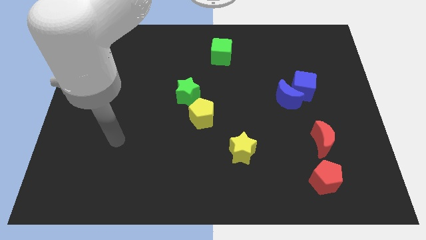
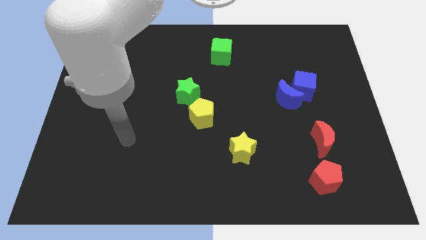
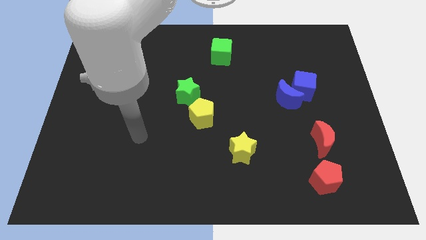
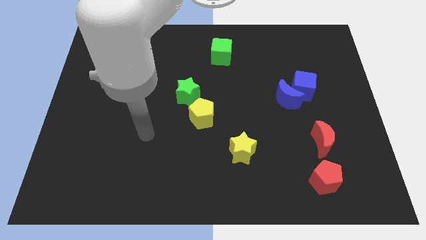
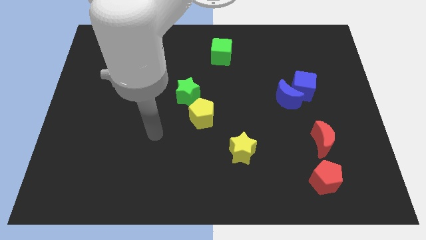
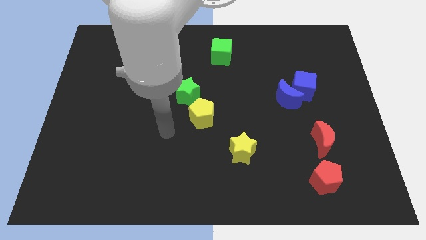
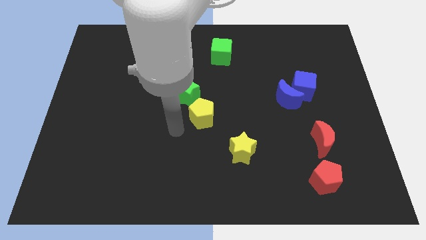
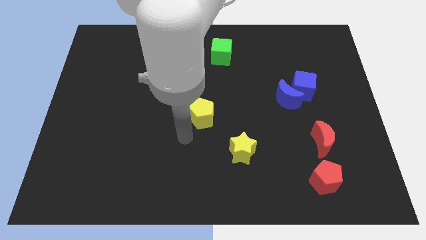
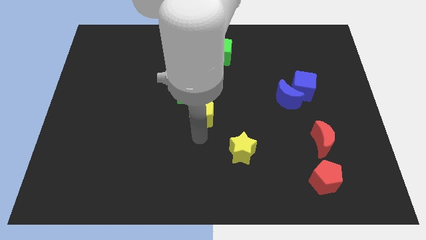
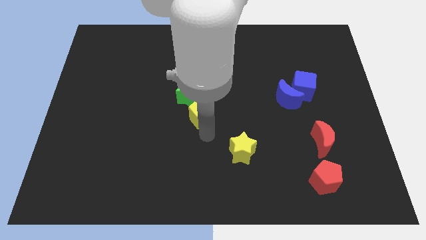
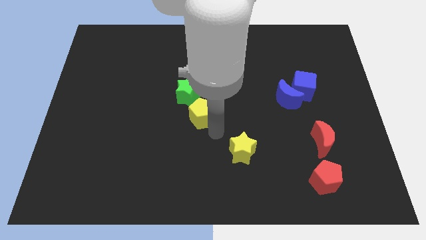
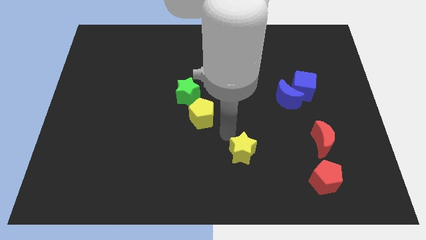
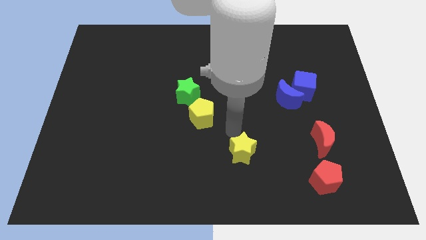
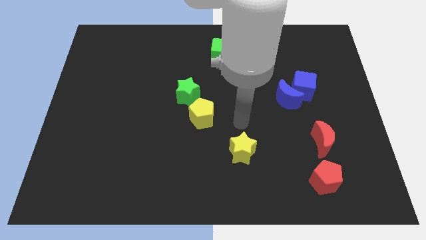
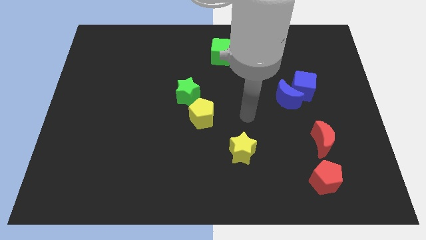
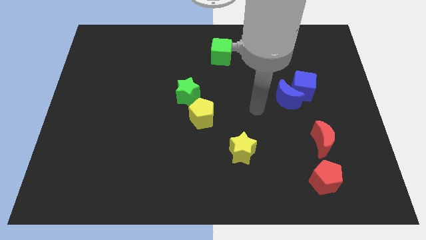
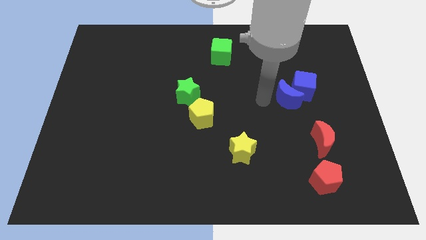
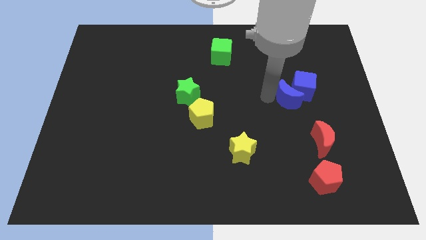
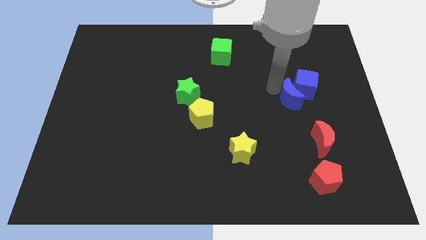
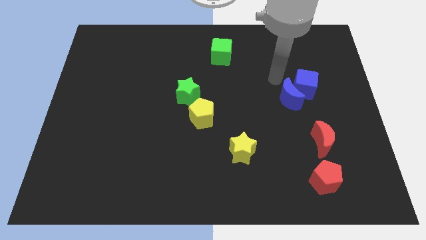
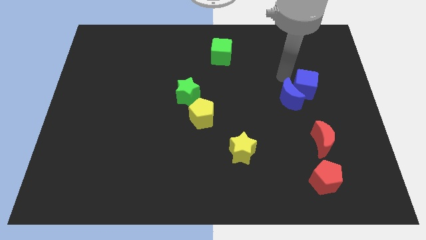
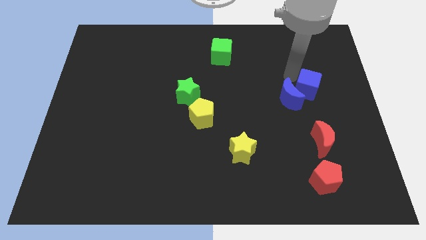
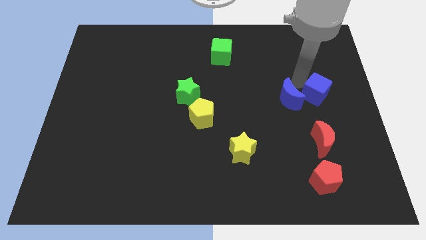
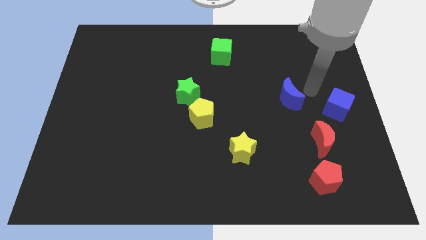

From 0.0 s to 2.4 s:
pull the blue moon apart from the blue cube

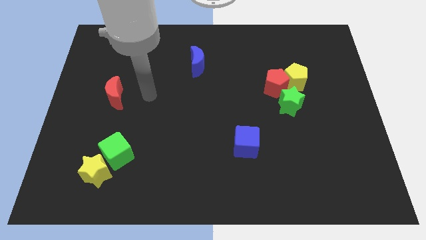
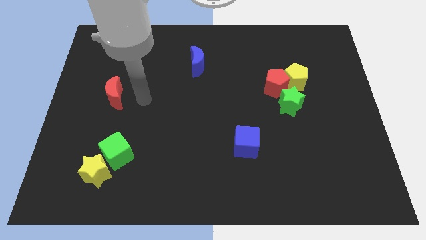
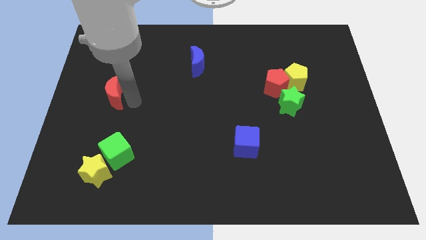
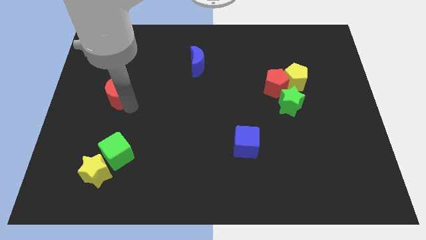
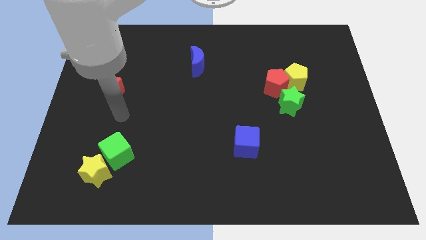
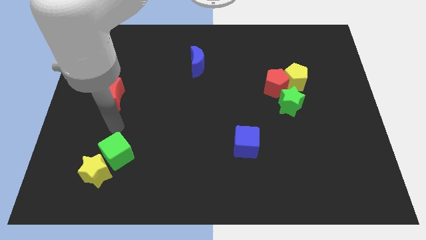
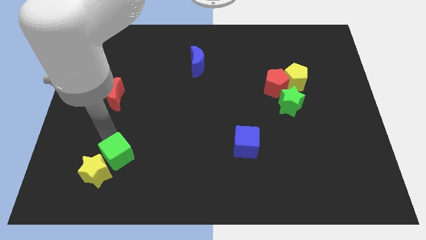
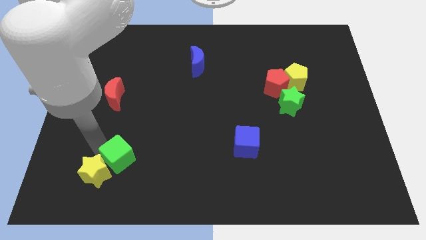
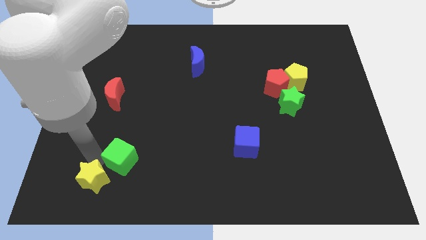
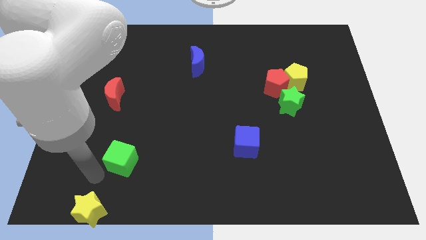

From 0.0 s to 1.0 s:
pull the green cube apart from the yellow star

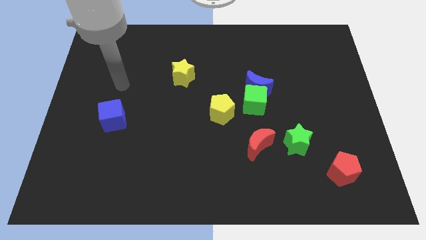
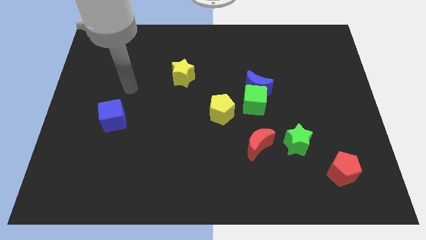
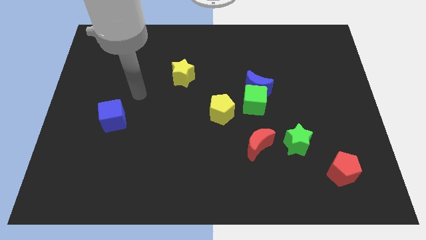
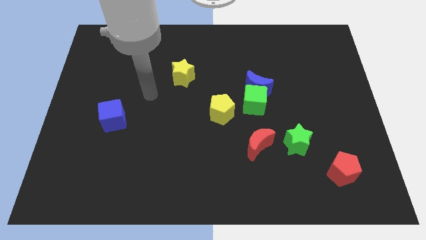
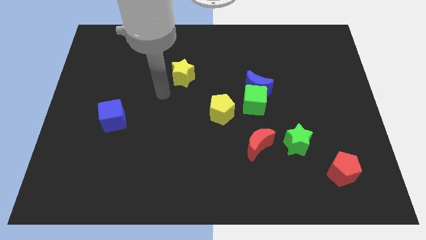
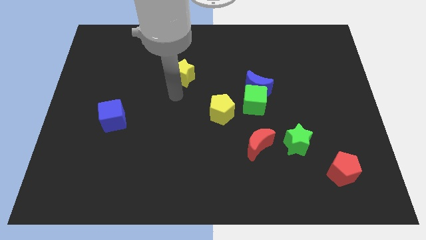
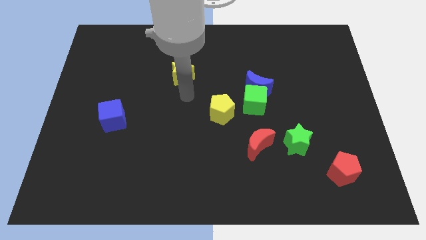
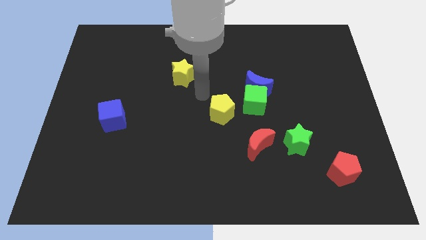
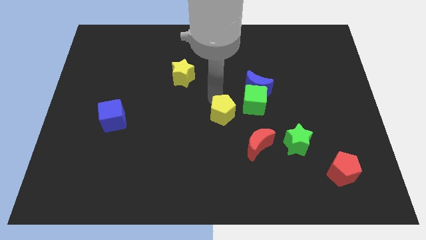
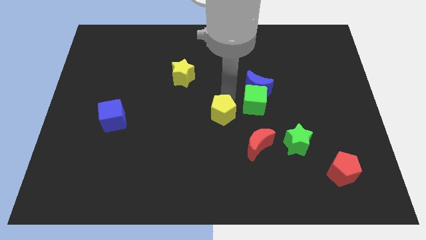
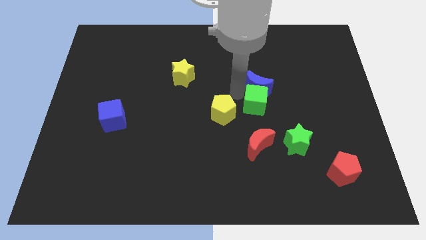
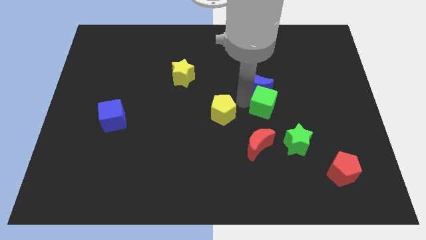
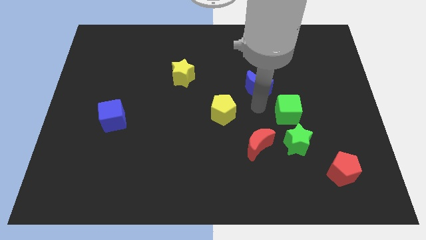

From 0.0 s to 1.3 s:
separate the blue moon from the green cube

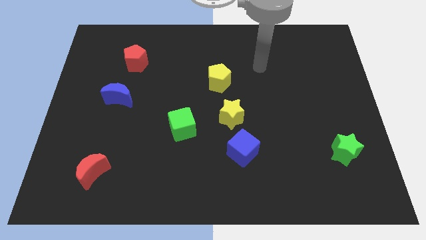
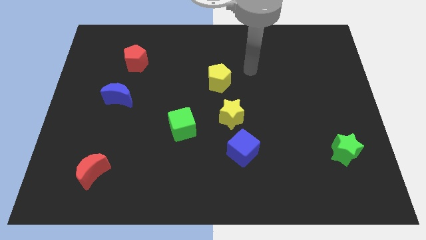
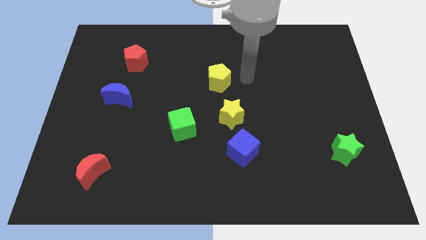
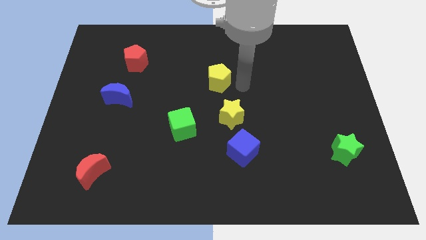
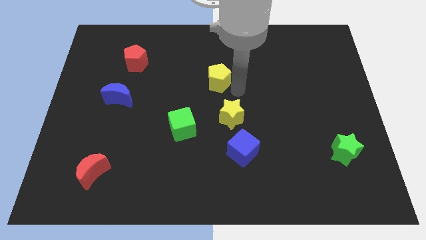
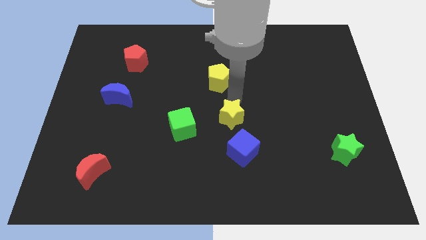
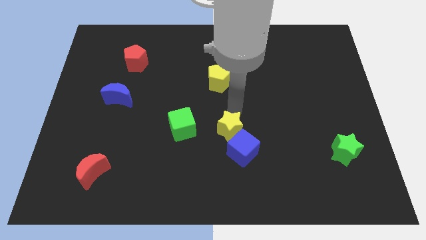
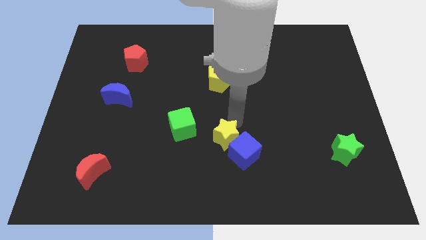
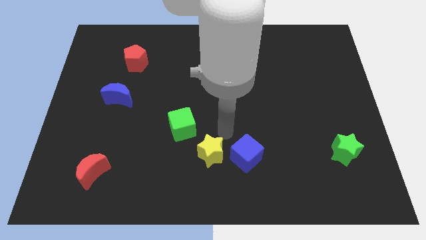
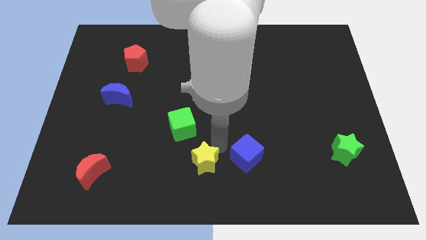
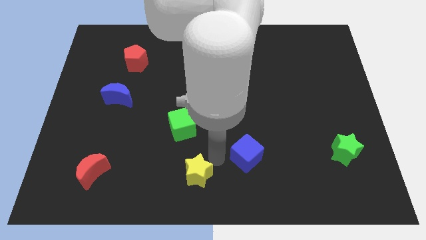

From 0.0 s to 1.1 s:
separate the blue cube from the yellow star

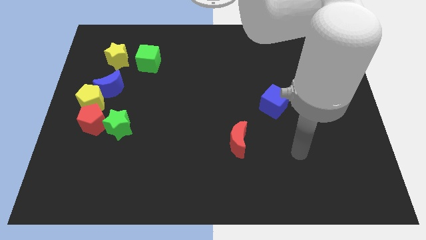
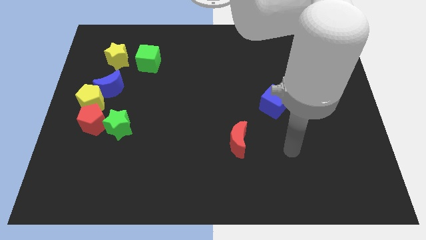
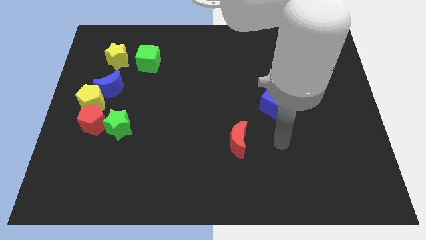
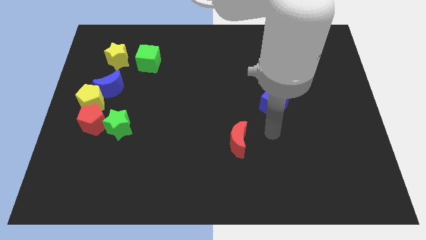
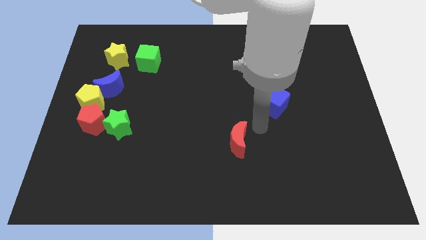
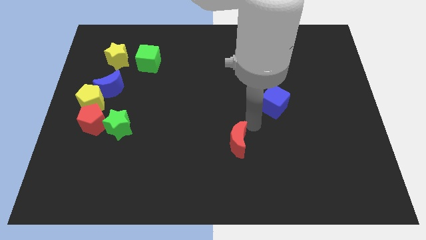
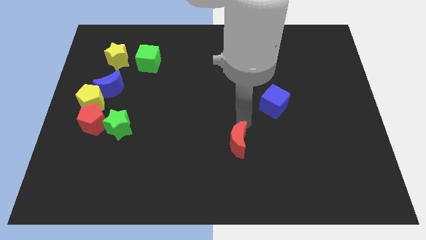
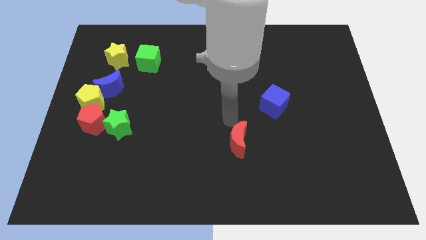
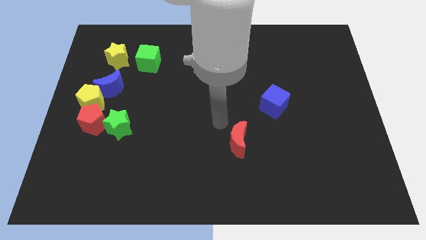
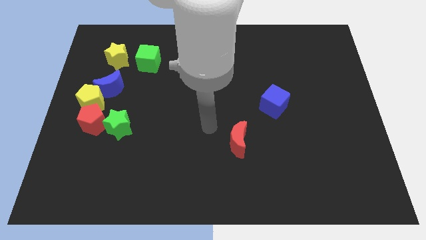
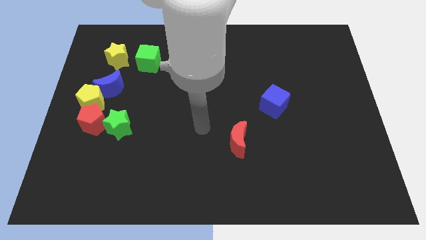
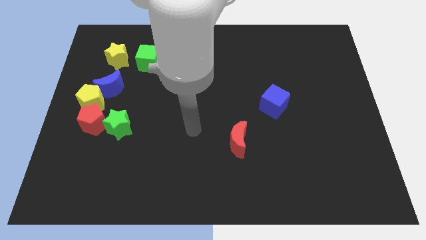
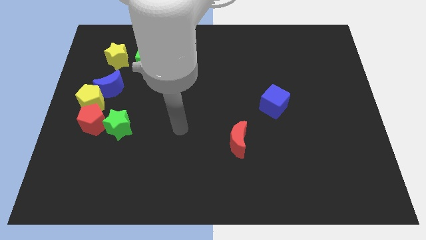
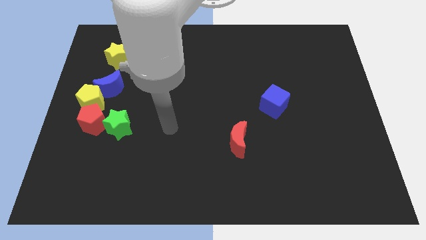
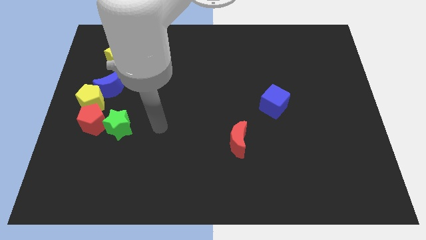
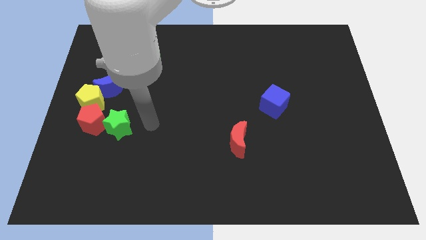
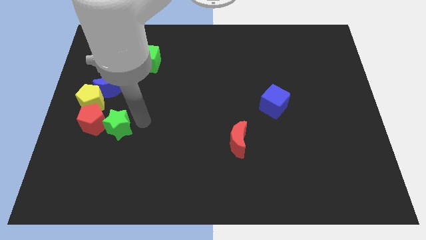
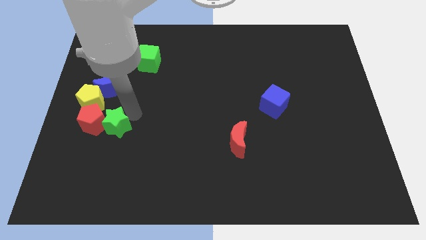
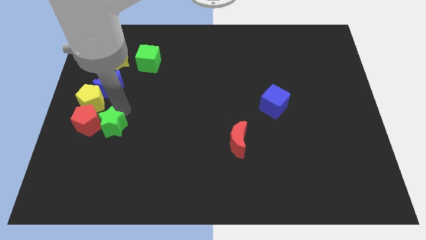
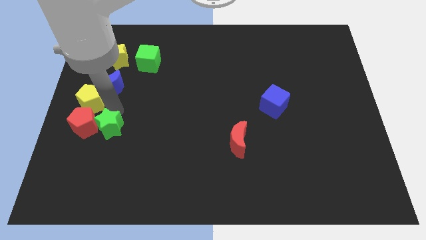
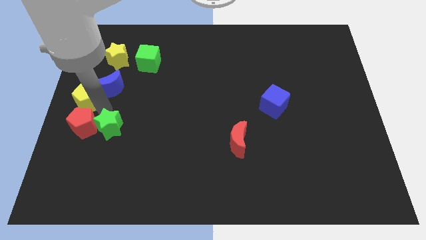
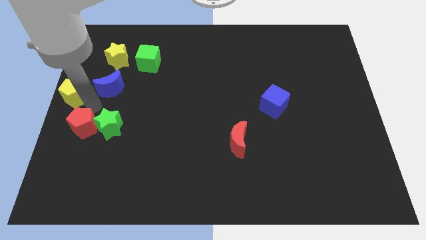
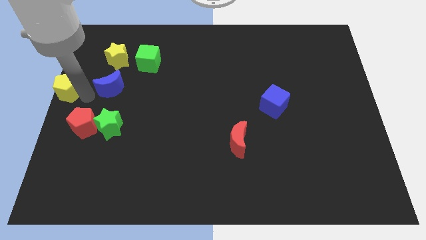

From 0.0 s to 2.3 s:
separate the blue moon from the yellow pentagon

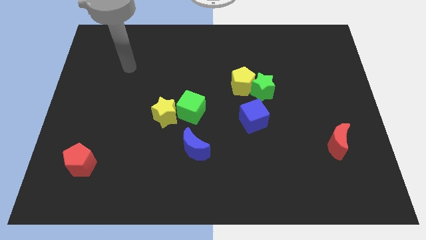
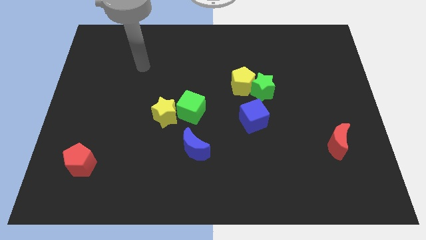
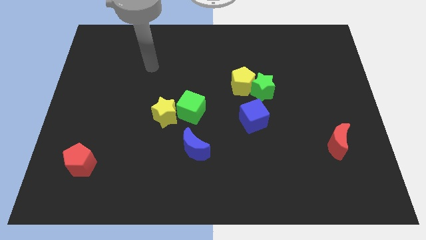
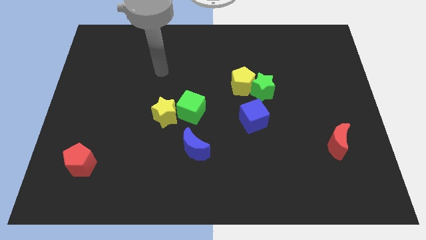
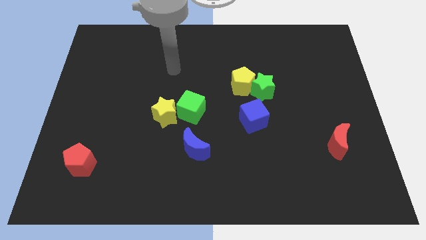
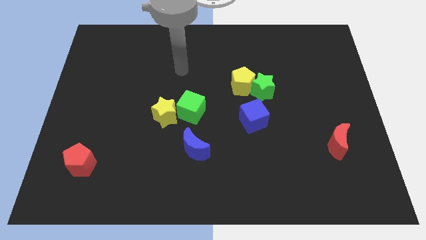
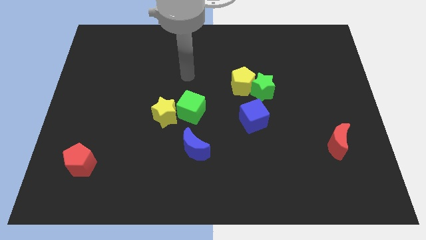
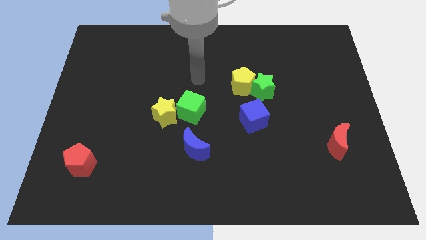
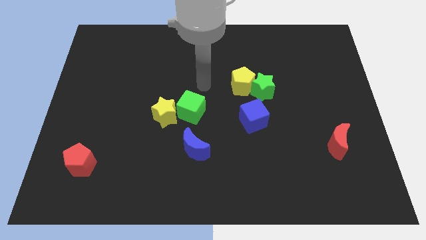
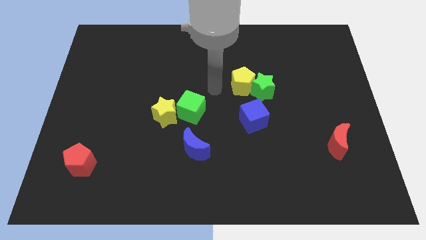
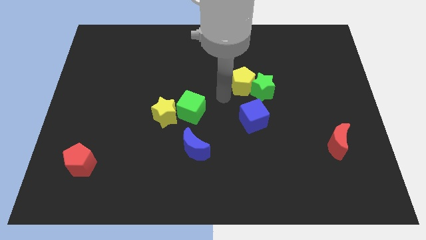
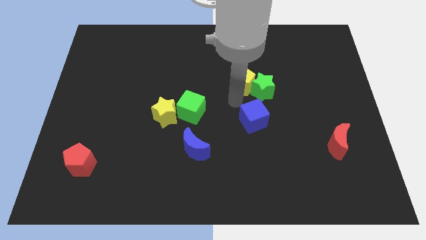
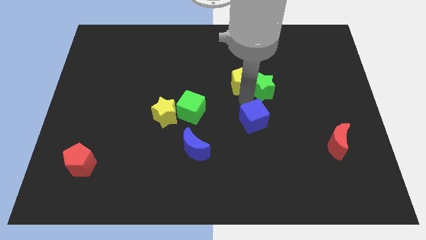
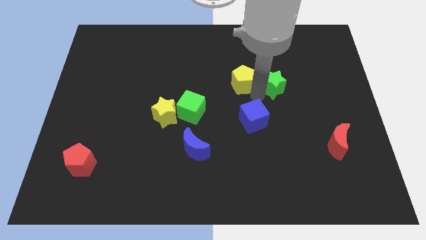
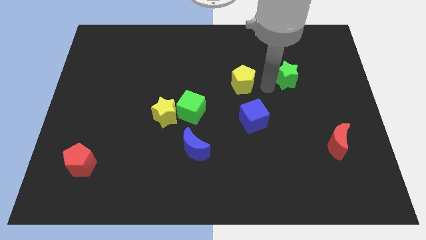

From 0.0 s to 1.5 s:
separate the yellow pentagon from the green star
